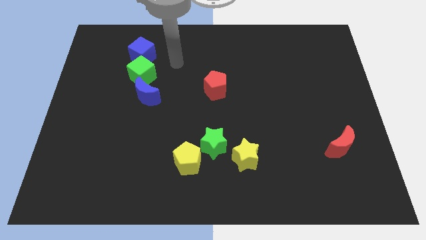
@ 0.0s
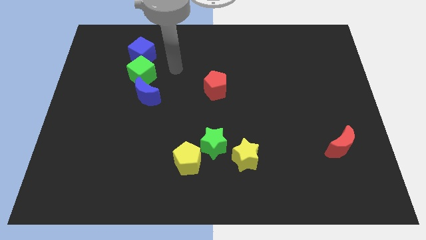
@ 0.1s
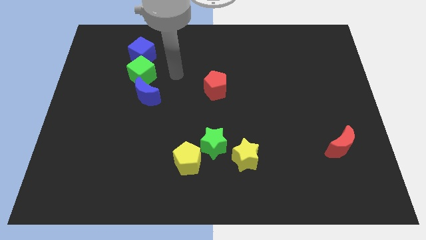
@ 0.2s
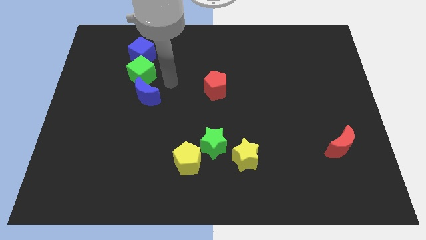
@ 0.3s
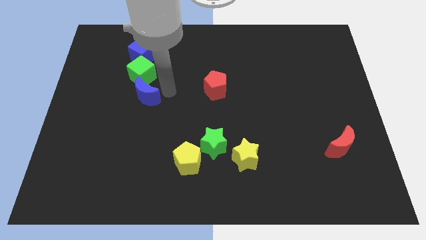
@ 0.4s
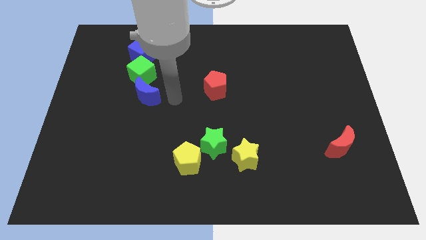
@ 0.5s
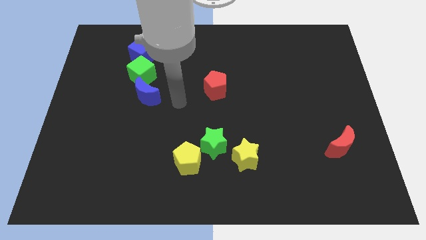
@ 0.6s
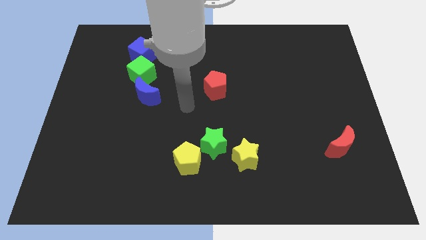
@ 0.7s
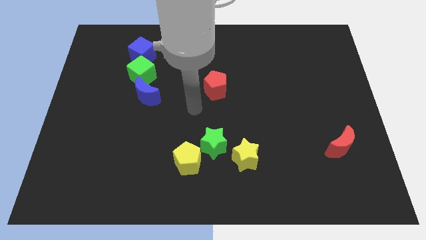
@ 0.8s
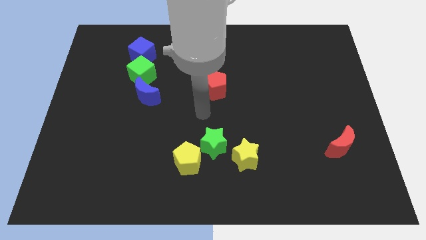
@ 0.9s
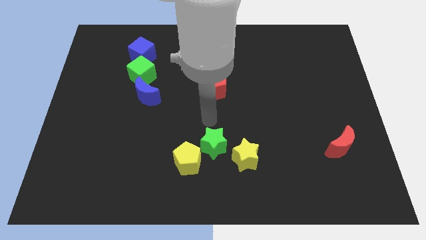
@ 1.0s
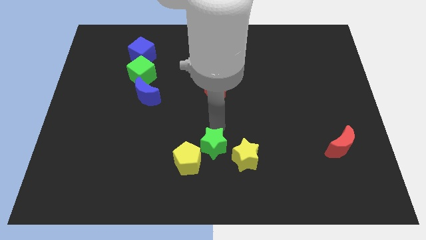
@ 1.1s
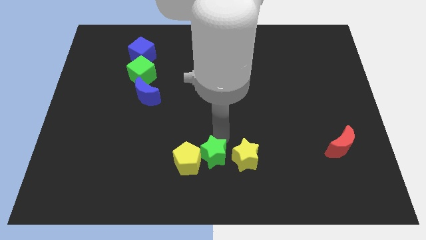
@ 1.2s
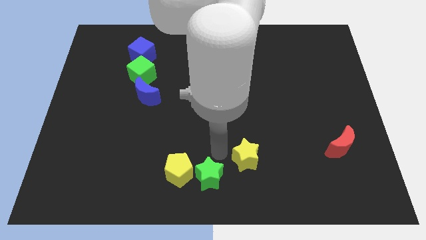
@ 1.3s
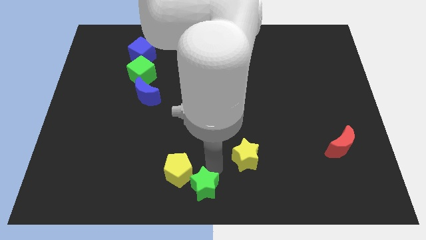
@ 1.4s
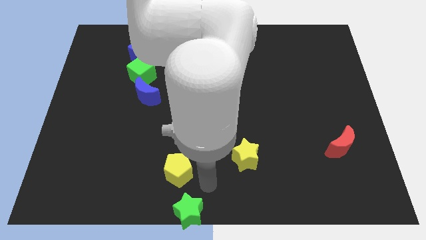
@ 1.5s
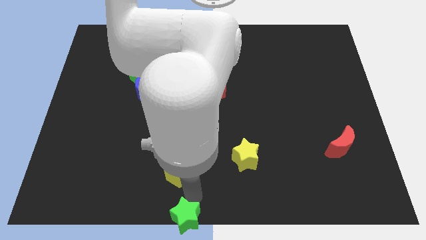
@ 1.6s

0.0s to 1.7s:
pull the yellow pentagon apart from the green star

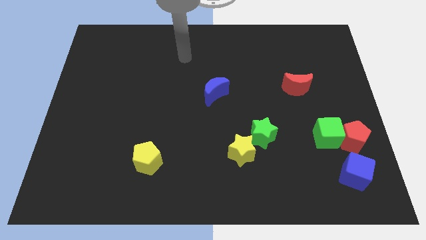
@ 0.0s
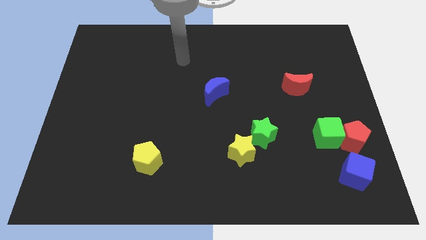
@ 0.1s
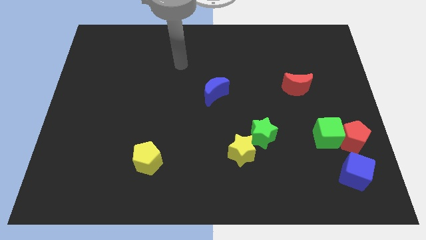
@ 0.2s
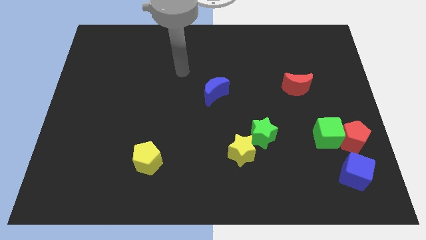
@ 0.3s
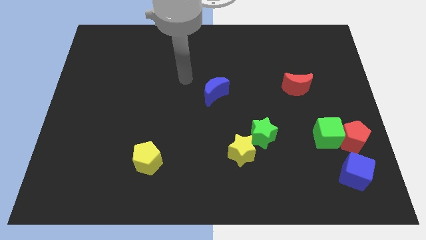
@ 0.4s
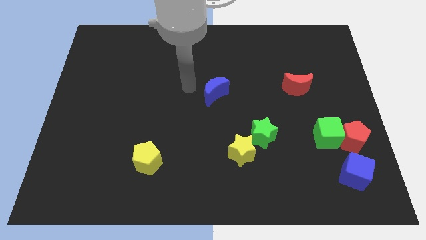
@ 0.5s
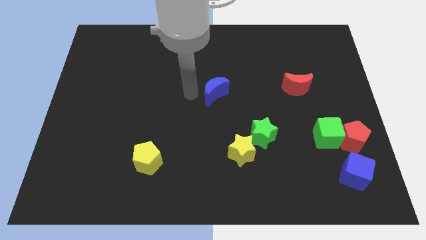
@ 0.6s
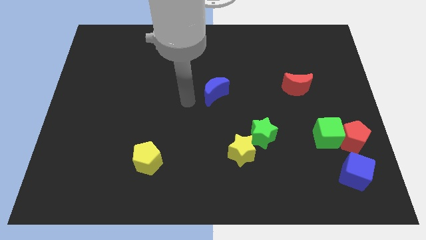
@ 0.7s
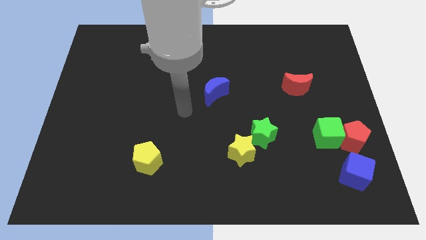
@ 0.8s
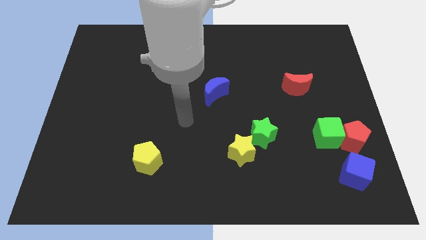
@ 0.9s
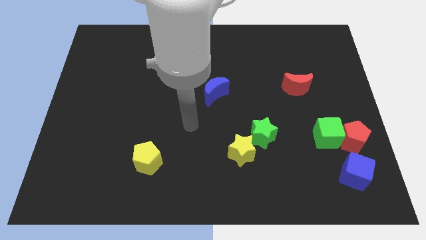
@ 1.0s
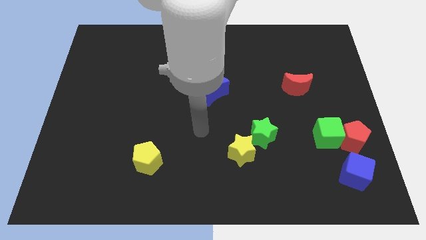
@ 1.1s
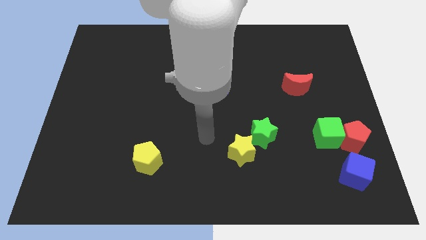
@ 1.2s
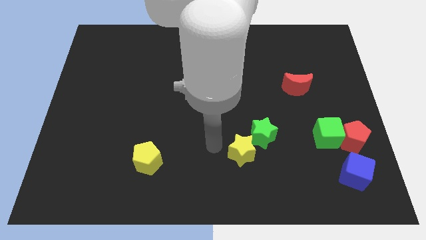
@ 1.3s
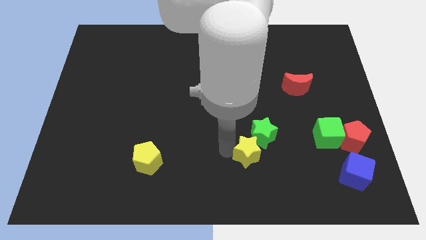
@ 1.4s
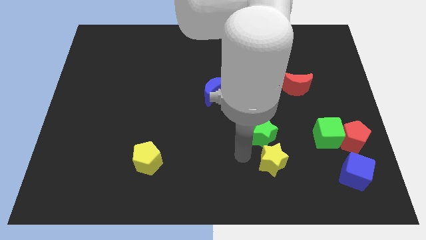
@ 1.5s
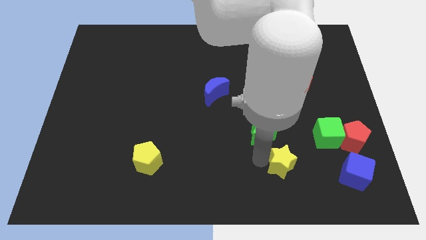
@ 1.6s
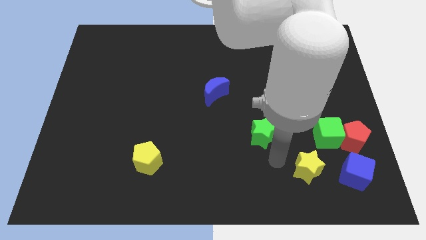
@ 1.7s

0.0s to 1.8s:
pull the green star apart from the yellow star

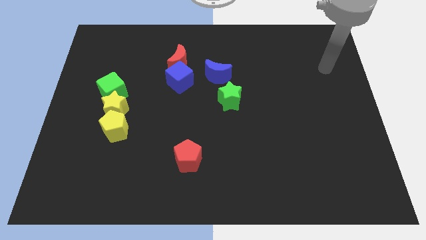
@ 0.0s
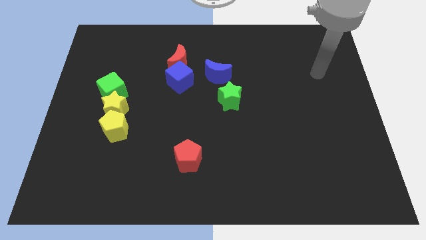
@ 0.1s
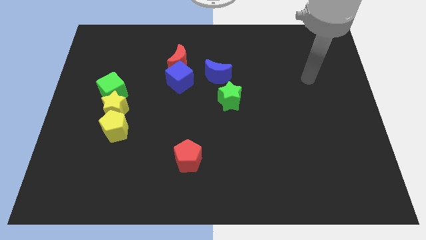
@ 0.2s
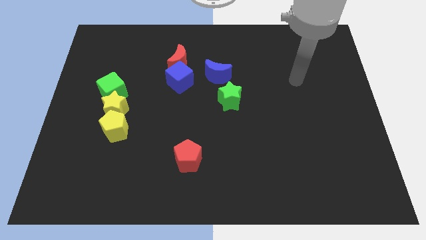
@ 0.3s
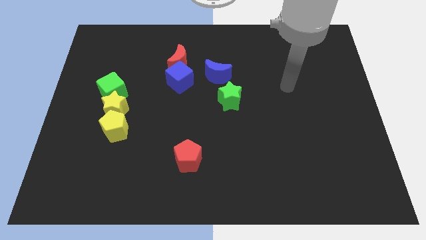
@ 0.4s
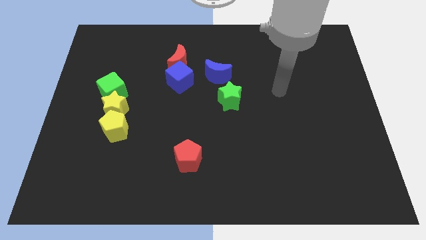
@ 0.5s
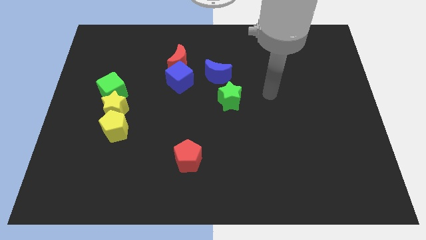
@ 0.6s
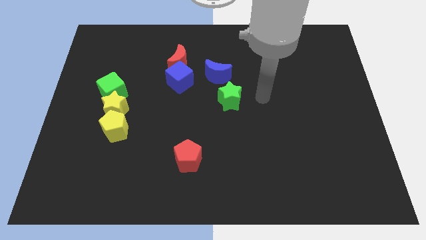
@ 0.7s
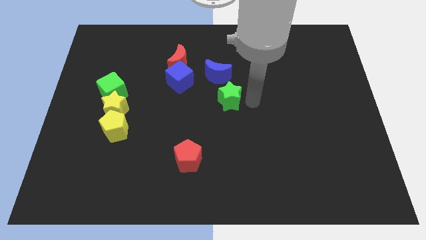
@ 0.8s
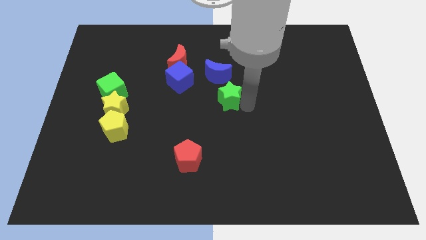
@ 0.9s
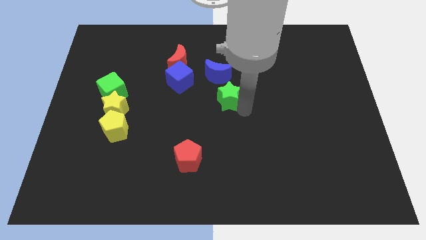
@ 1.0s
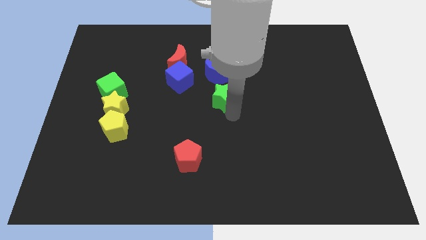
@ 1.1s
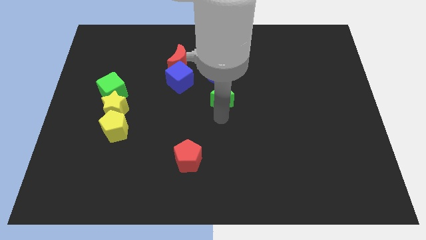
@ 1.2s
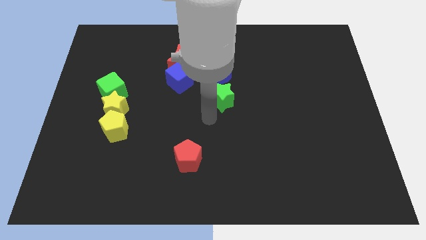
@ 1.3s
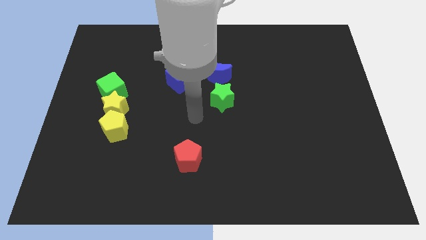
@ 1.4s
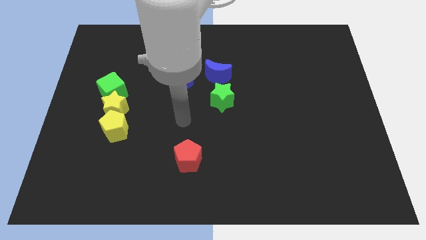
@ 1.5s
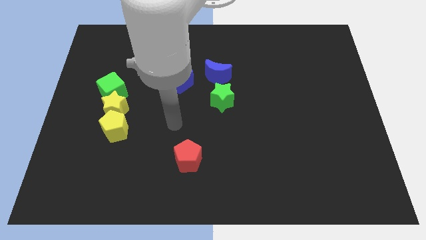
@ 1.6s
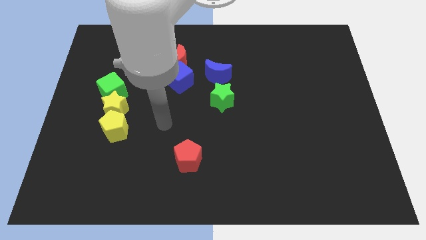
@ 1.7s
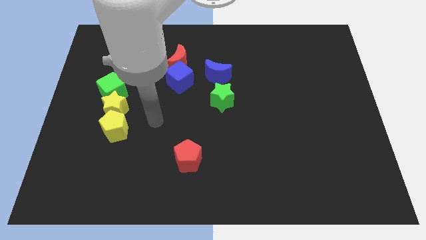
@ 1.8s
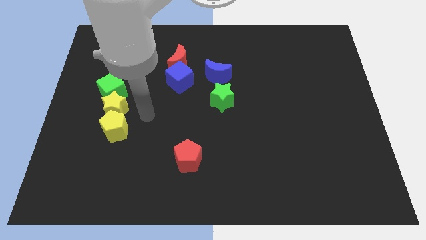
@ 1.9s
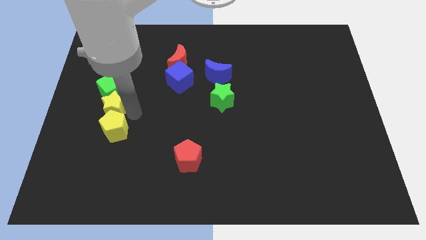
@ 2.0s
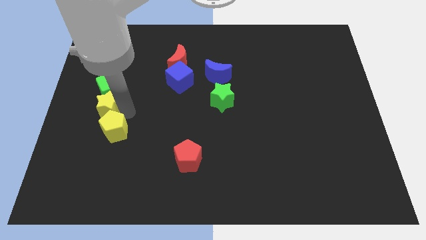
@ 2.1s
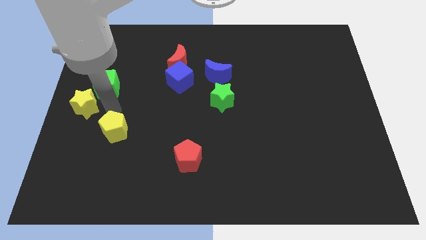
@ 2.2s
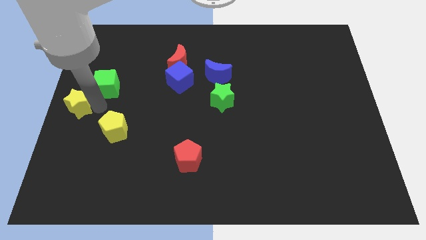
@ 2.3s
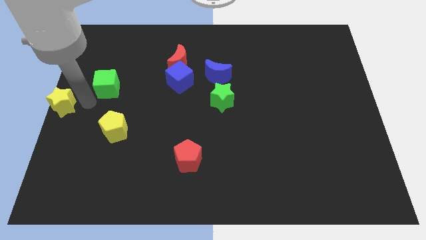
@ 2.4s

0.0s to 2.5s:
separate the green cube from the yellow star

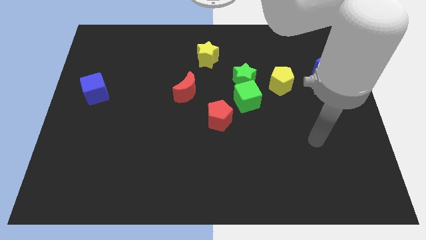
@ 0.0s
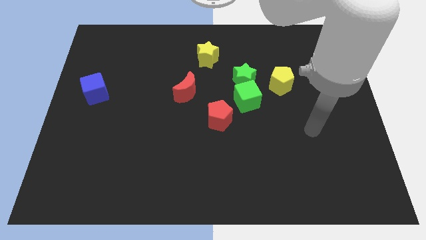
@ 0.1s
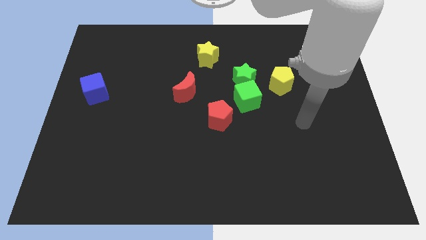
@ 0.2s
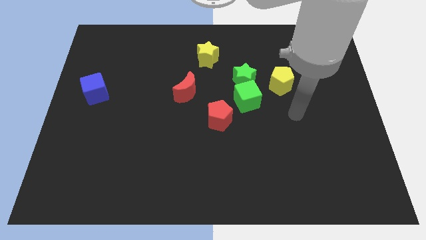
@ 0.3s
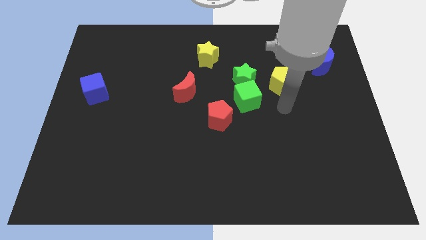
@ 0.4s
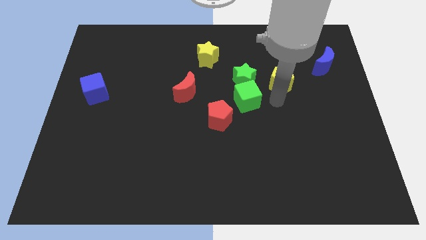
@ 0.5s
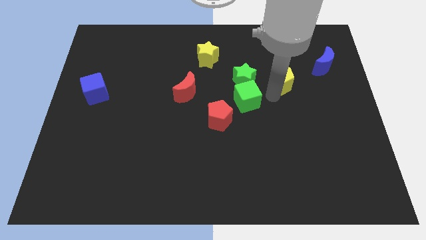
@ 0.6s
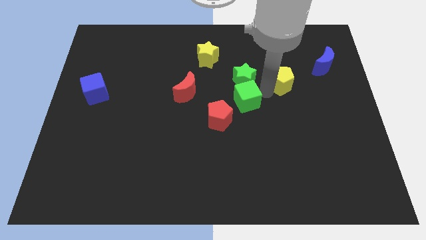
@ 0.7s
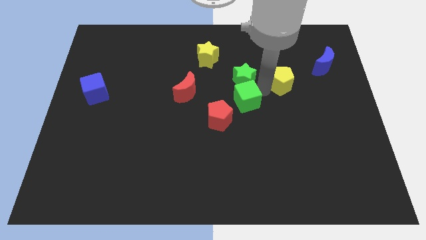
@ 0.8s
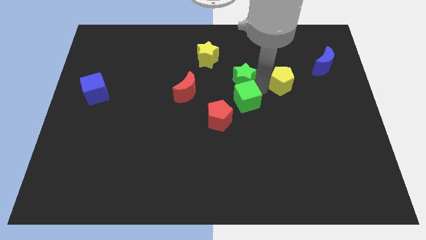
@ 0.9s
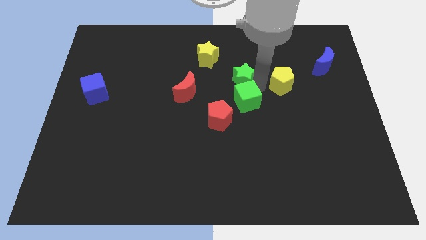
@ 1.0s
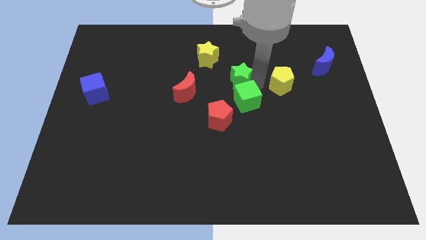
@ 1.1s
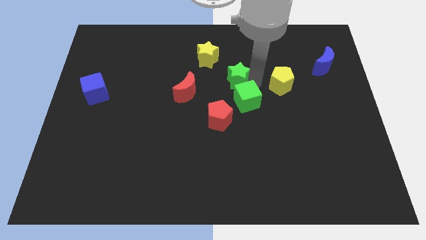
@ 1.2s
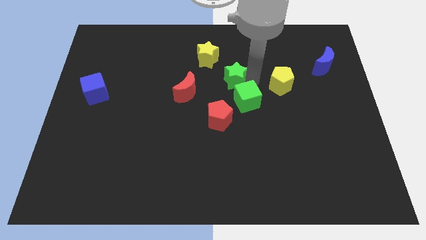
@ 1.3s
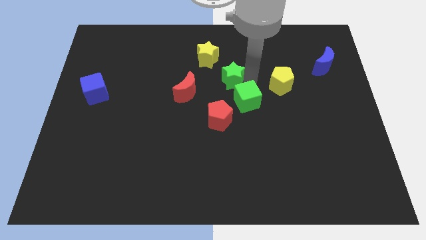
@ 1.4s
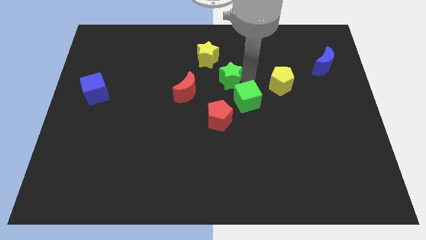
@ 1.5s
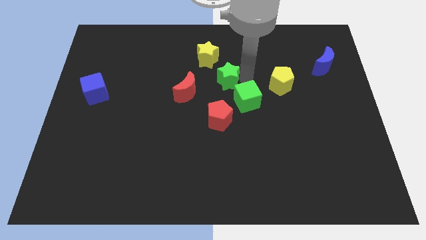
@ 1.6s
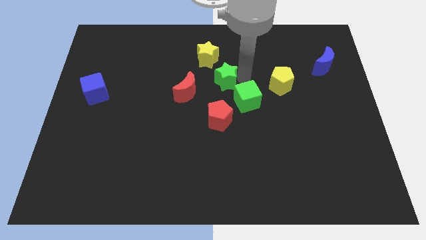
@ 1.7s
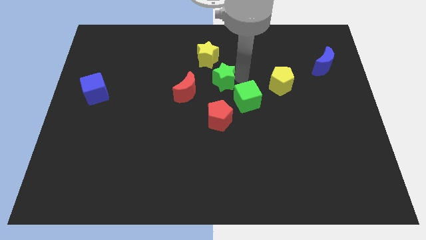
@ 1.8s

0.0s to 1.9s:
separate the green star from the green cube and yellow pentagon

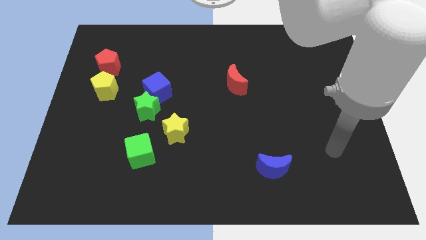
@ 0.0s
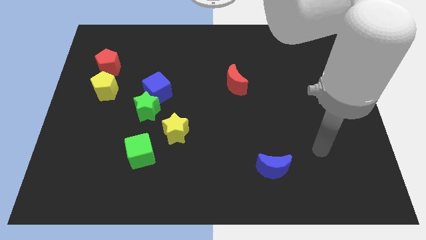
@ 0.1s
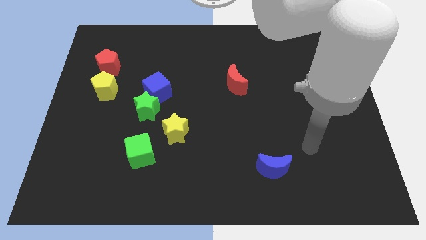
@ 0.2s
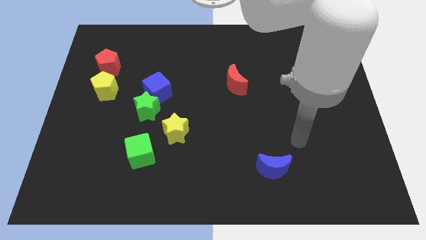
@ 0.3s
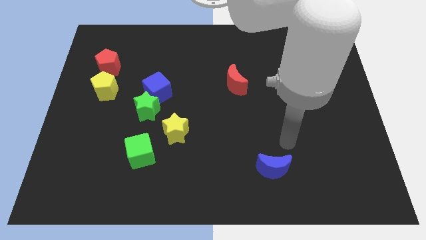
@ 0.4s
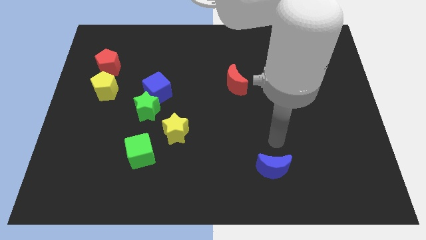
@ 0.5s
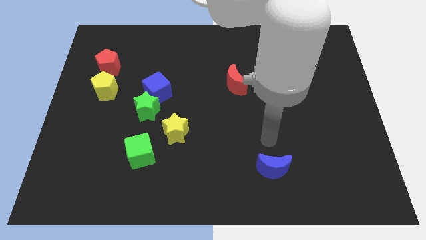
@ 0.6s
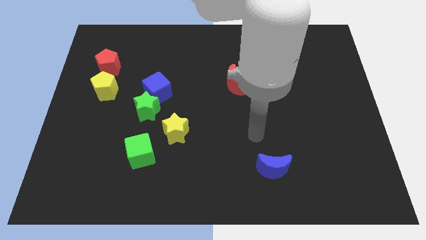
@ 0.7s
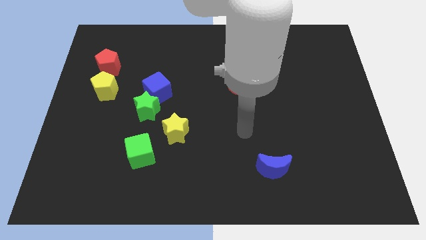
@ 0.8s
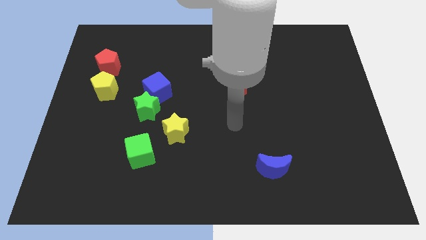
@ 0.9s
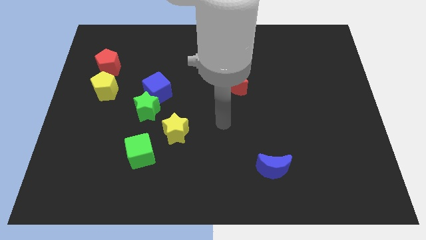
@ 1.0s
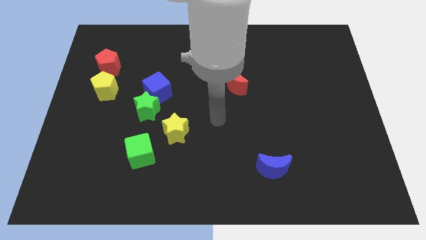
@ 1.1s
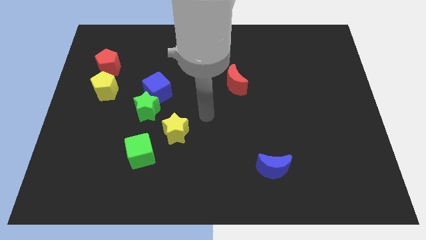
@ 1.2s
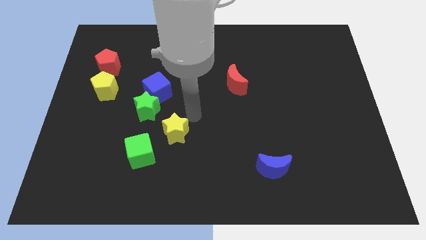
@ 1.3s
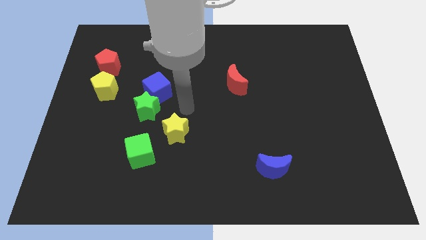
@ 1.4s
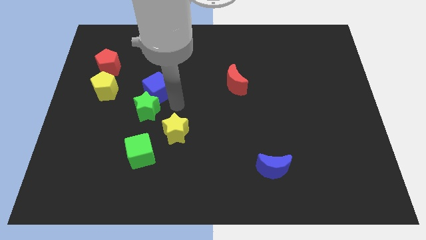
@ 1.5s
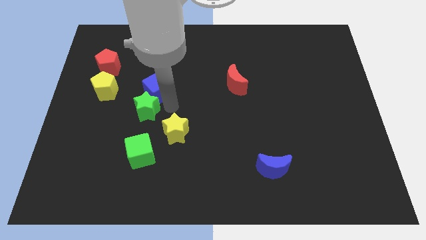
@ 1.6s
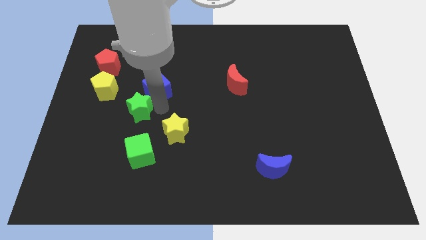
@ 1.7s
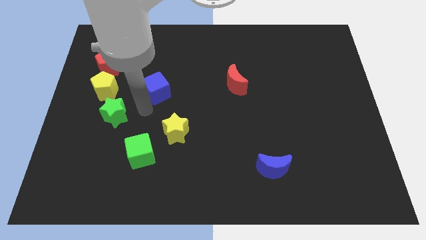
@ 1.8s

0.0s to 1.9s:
pull the blue cube apart from the green star
